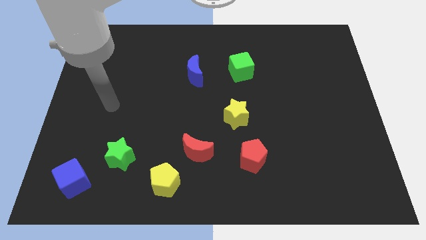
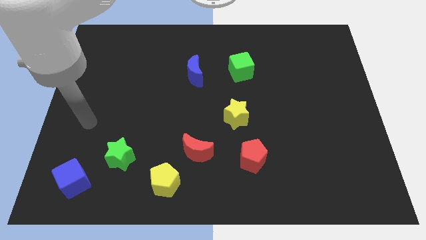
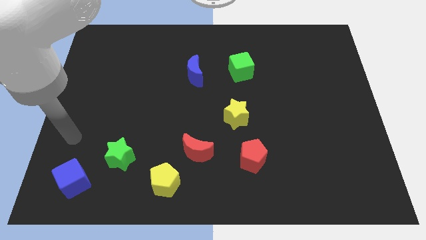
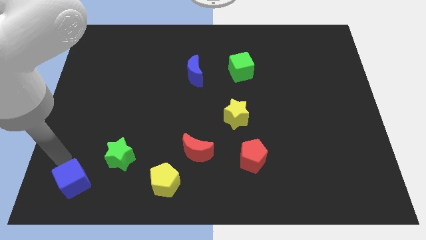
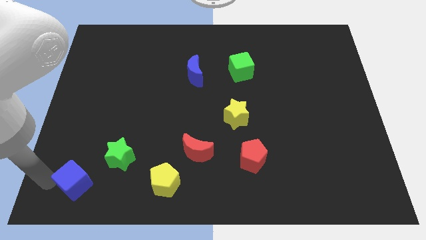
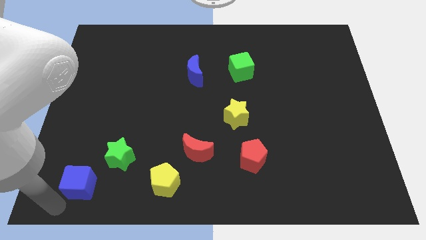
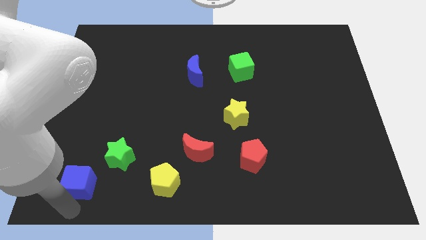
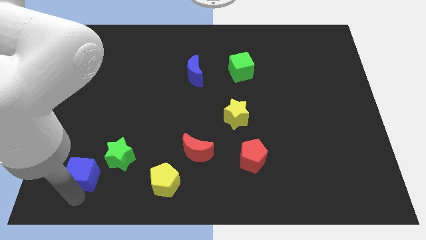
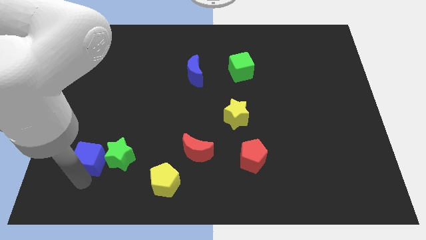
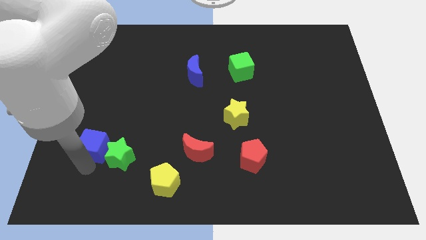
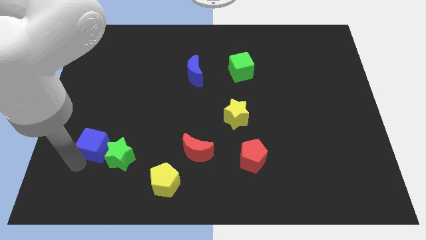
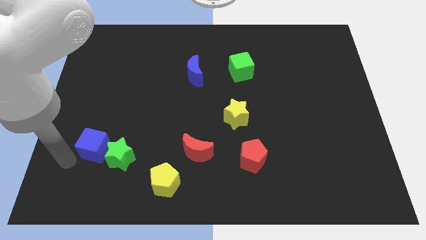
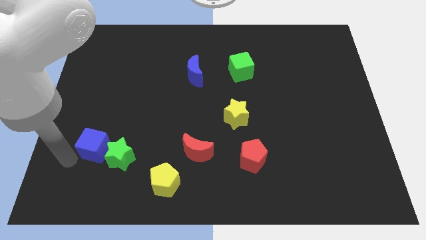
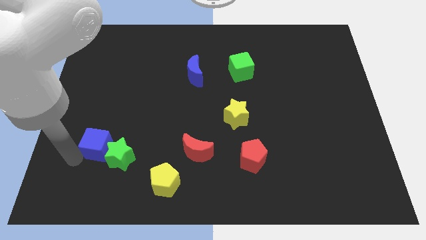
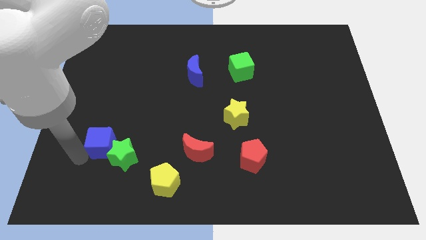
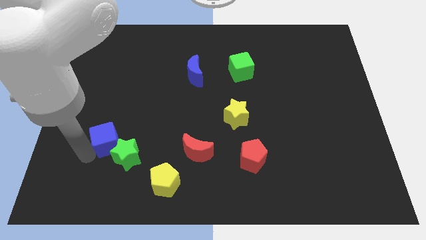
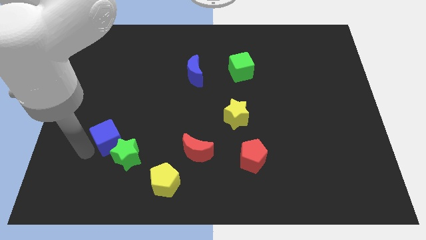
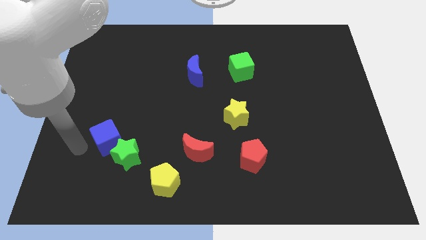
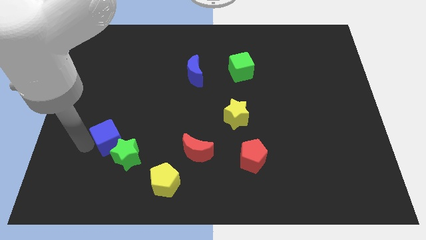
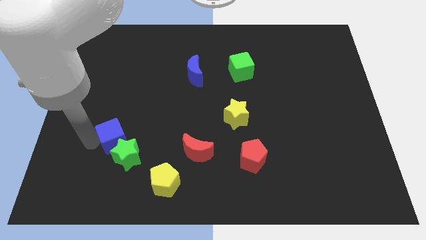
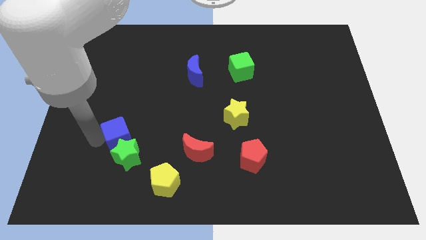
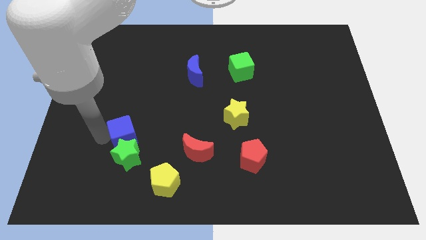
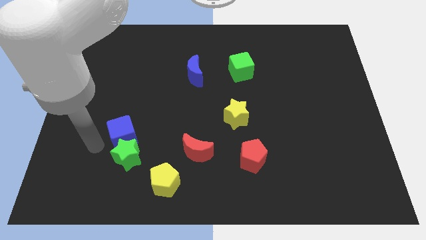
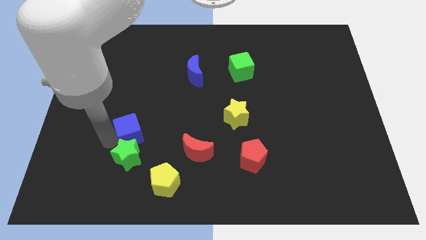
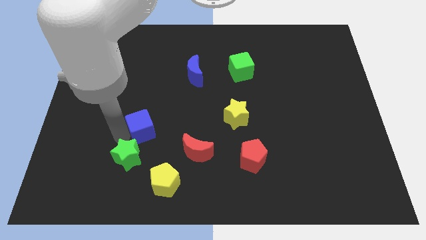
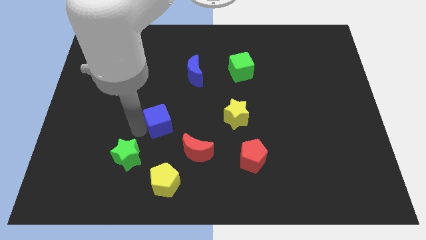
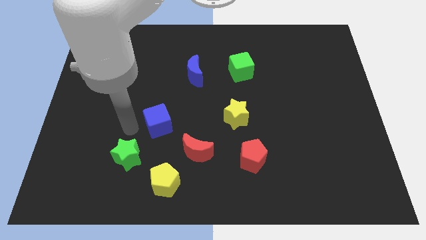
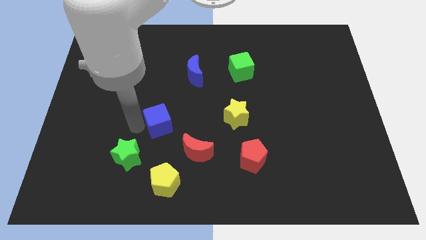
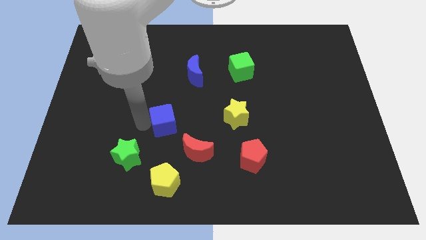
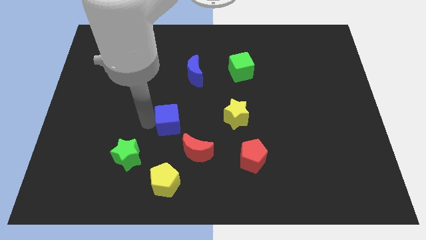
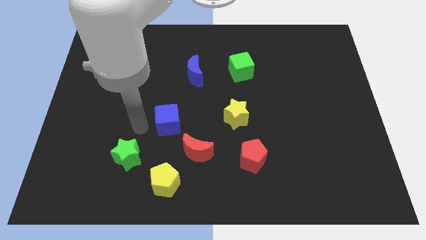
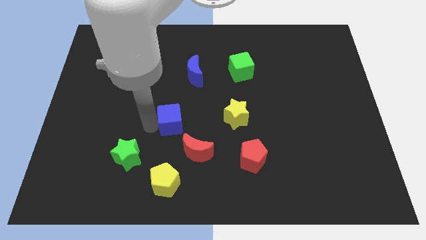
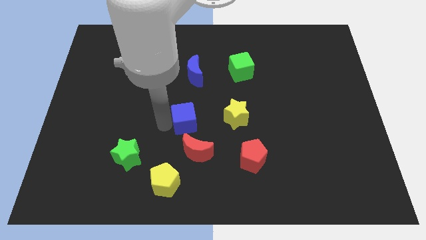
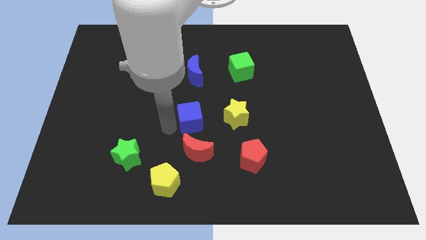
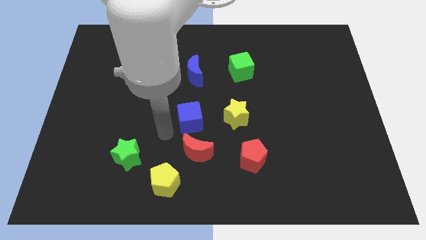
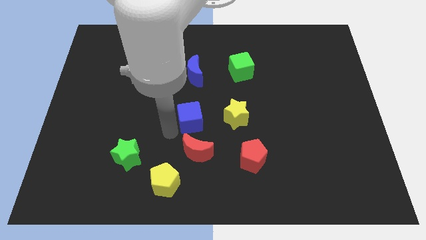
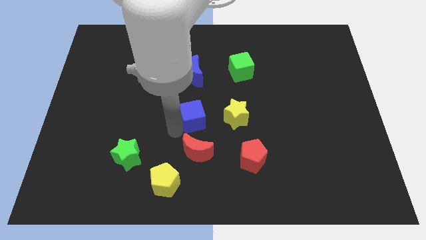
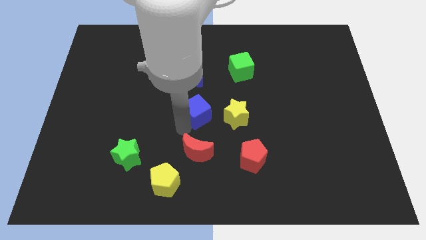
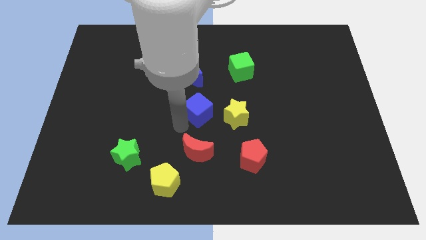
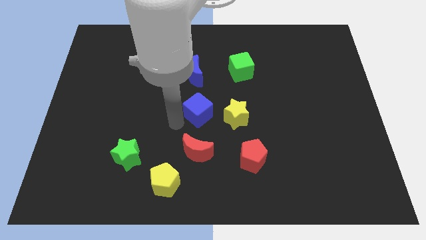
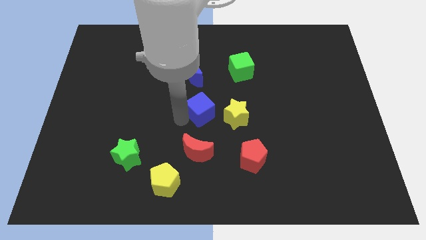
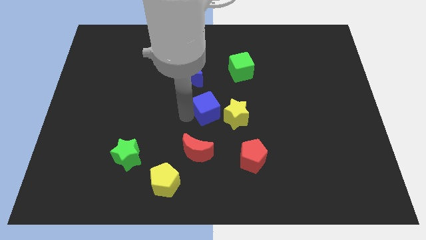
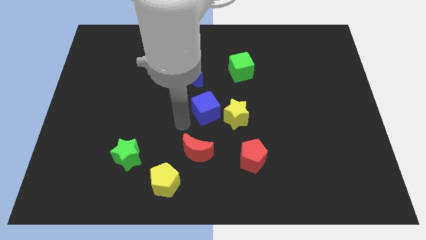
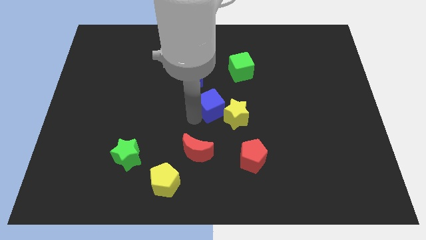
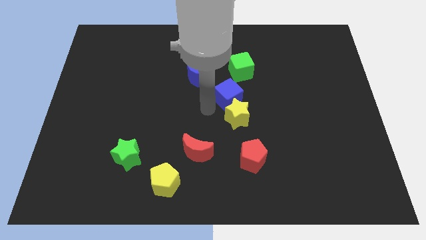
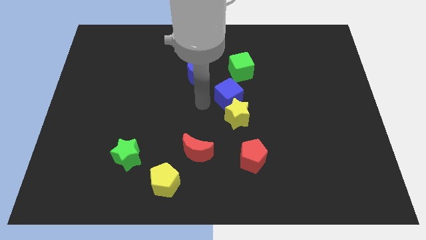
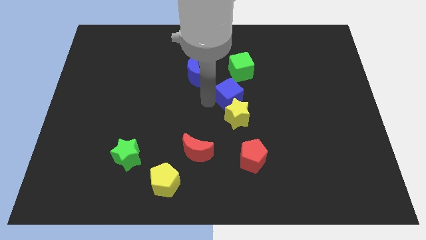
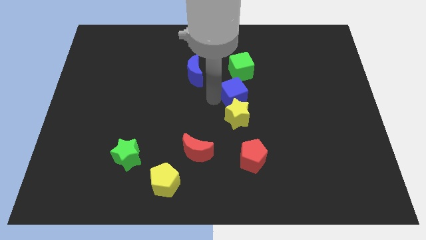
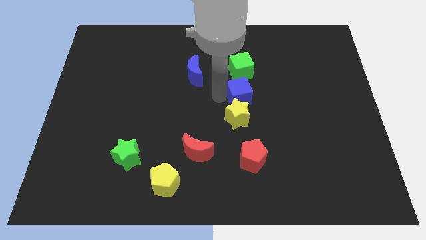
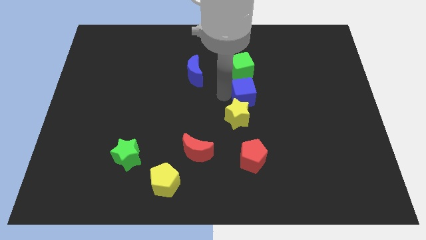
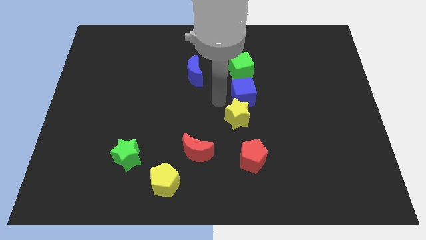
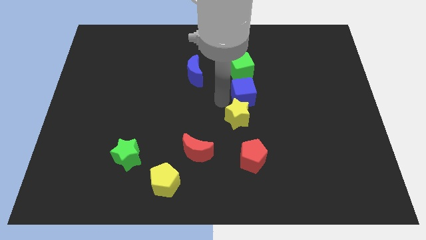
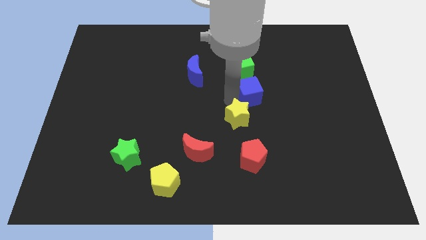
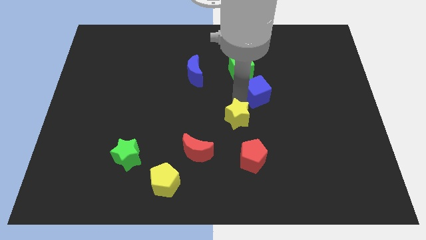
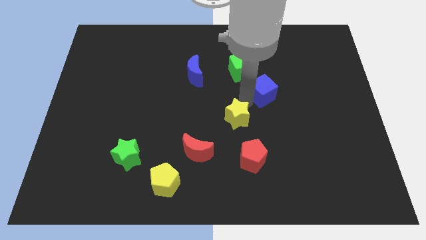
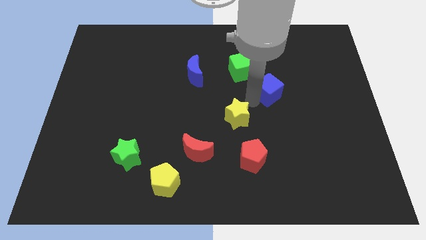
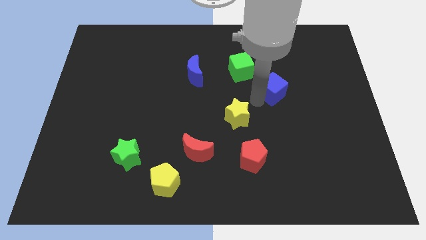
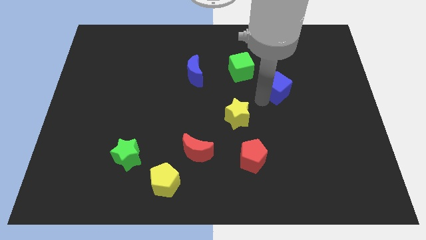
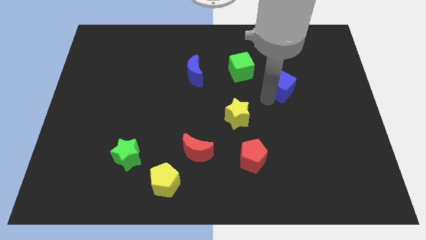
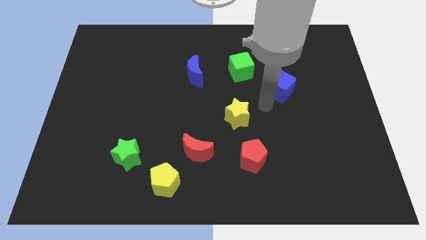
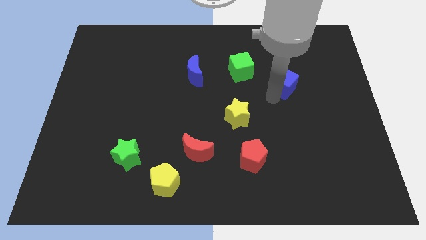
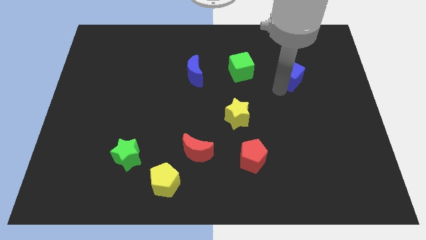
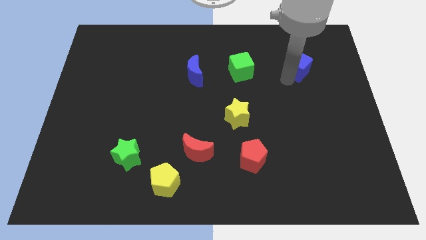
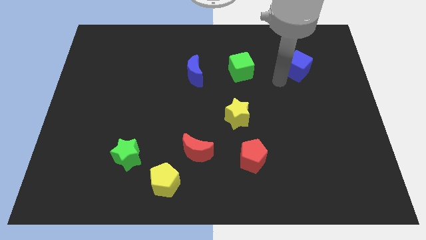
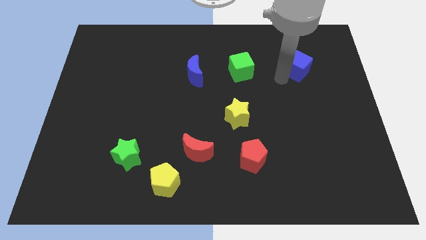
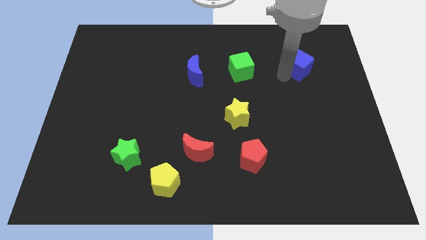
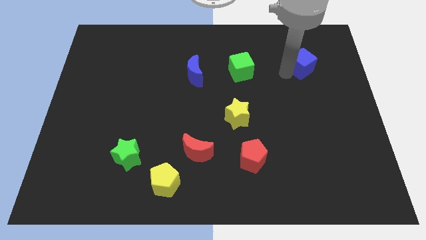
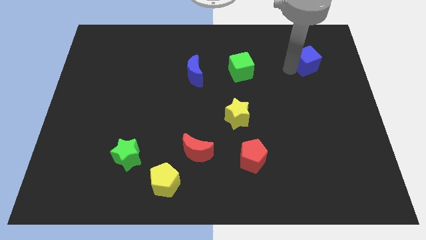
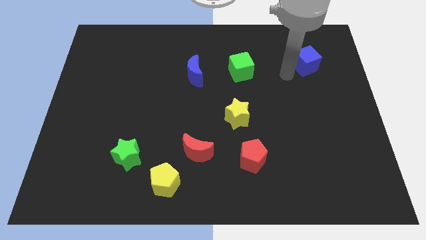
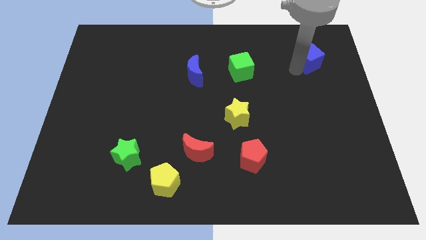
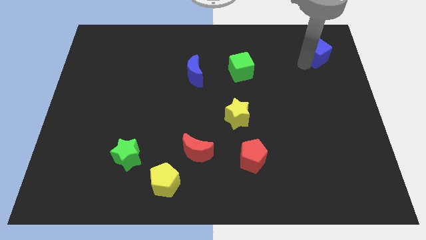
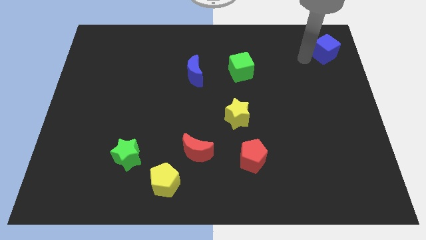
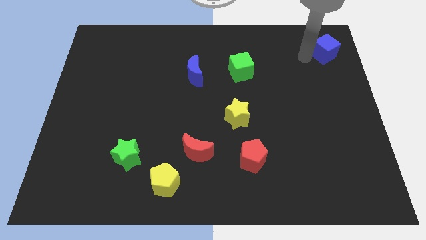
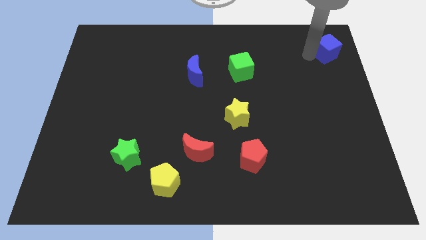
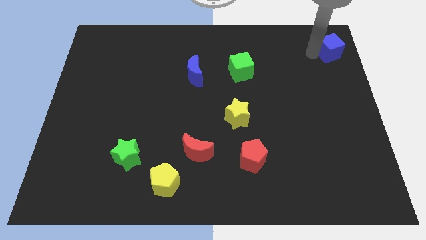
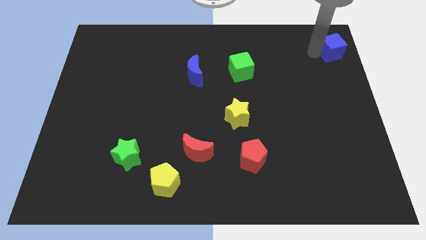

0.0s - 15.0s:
move the blue cube to the upper right corner
